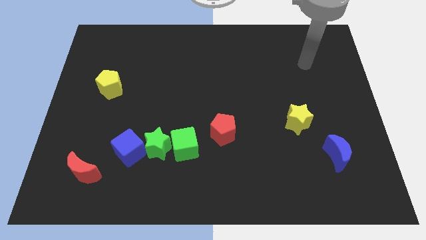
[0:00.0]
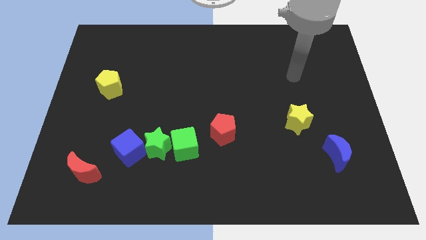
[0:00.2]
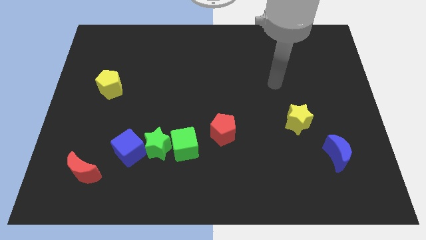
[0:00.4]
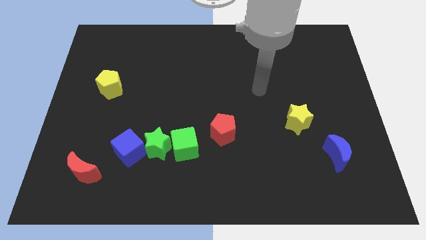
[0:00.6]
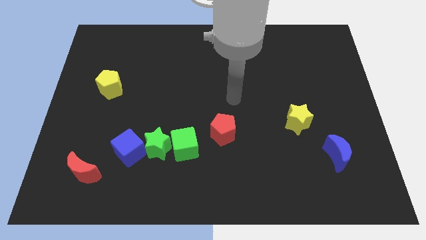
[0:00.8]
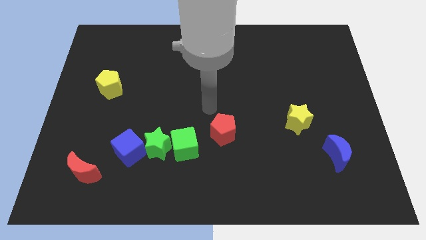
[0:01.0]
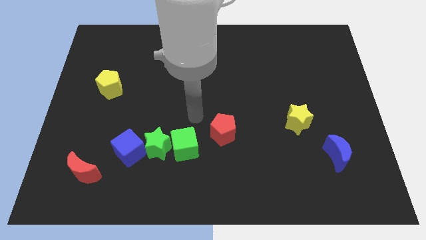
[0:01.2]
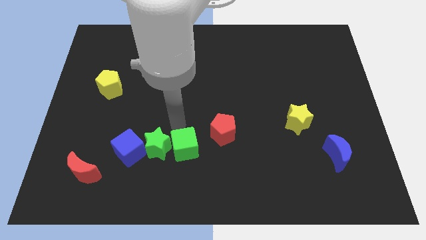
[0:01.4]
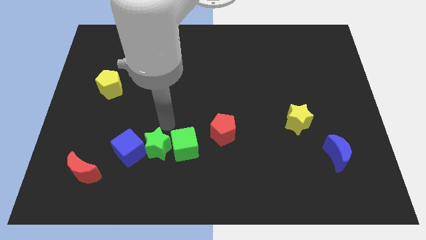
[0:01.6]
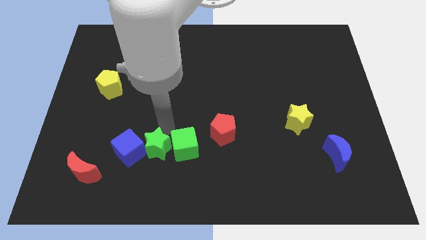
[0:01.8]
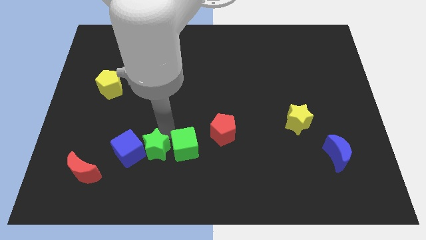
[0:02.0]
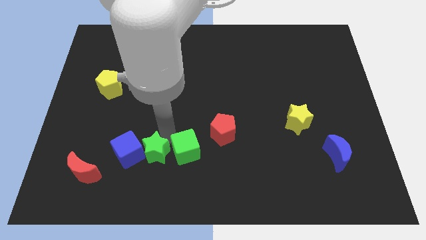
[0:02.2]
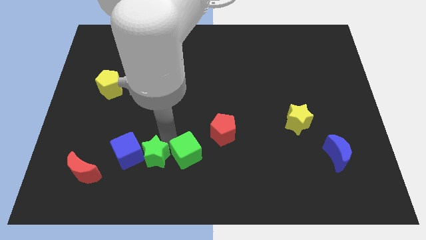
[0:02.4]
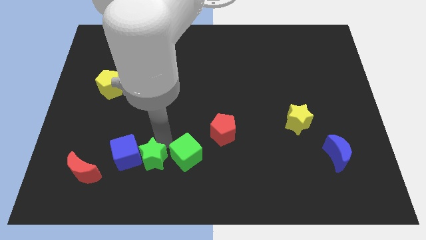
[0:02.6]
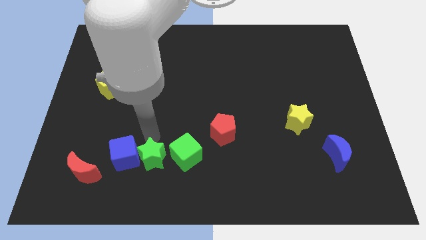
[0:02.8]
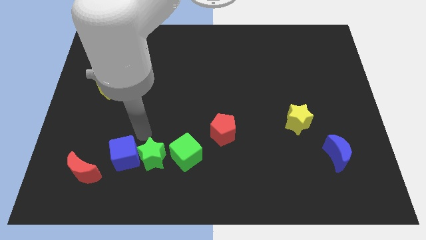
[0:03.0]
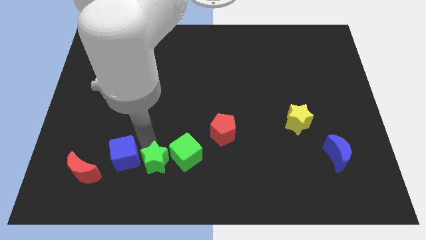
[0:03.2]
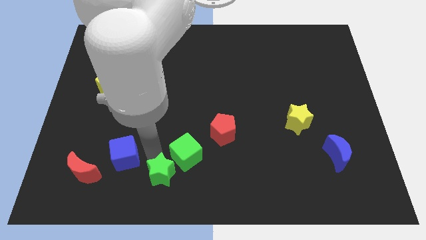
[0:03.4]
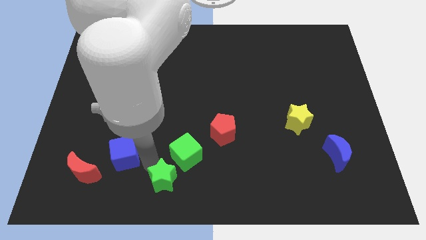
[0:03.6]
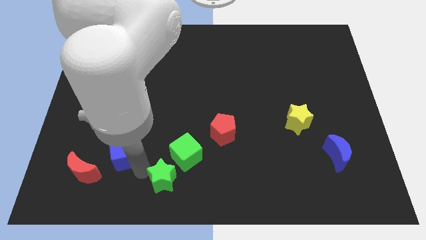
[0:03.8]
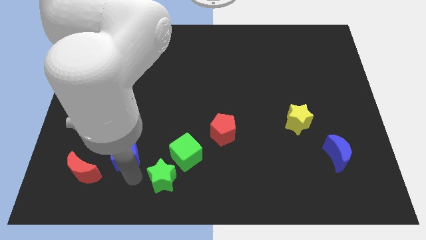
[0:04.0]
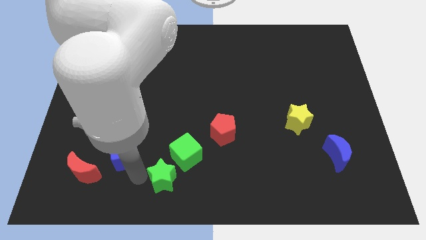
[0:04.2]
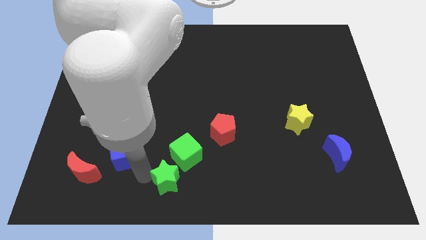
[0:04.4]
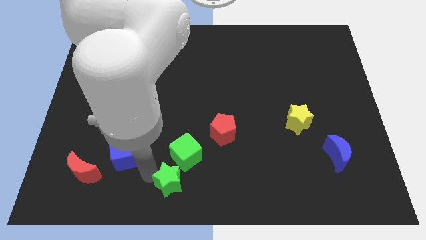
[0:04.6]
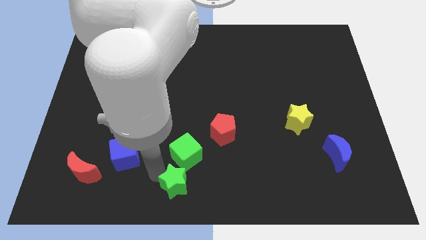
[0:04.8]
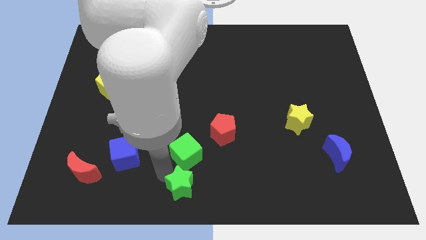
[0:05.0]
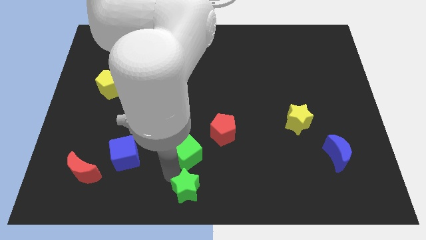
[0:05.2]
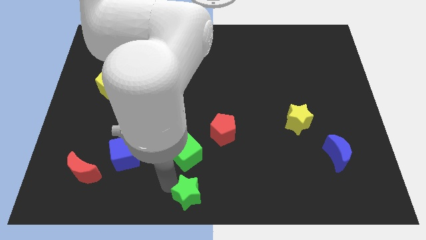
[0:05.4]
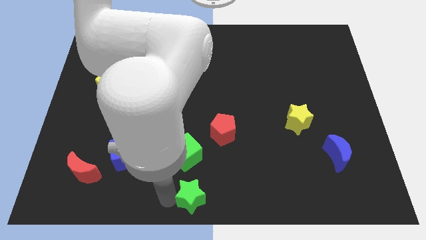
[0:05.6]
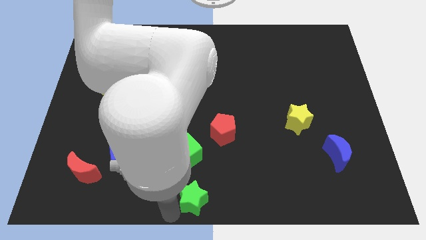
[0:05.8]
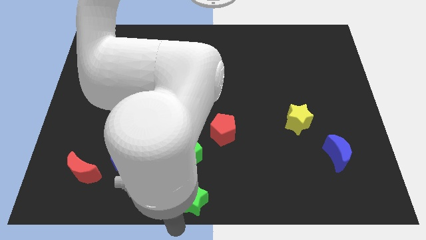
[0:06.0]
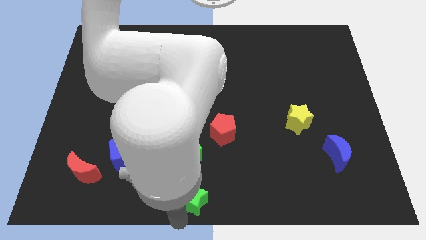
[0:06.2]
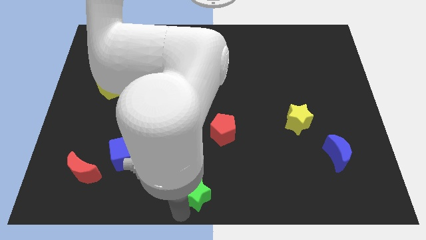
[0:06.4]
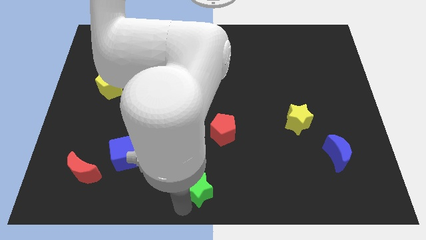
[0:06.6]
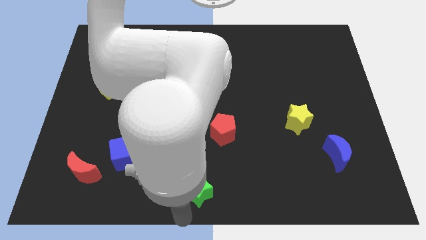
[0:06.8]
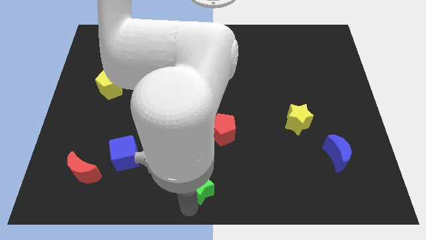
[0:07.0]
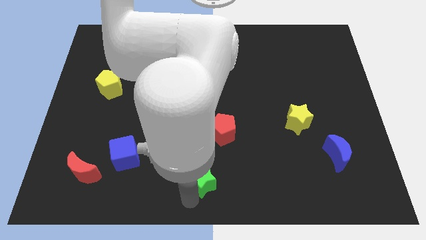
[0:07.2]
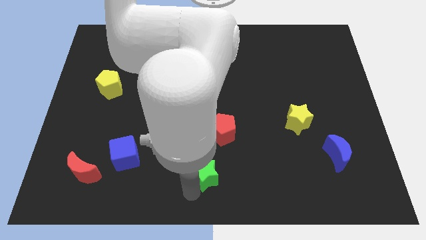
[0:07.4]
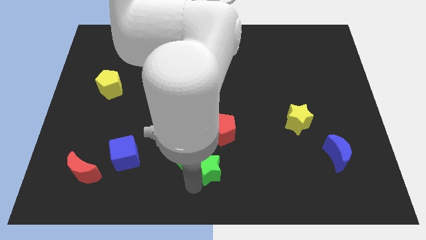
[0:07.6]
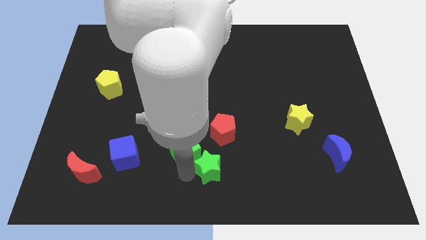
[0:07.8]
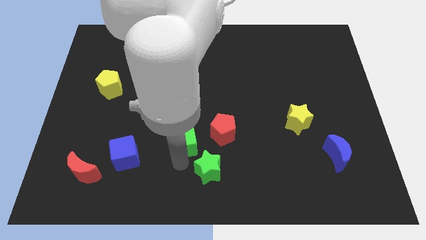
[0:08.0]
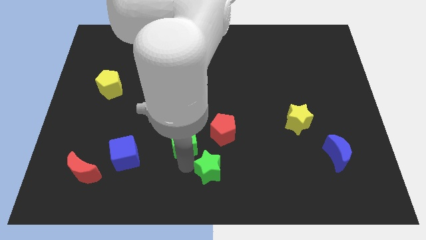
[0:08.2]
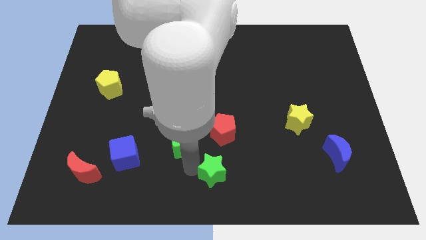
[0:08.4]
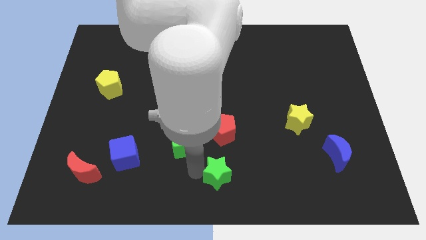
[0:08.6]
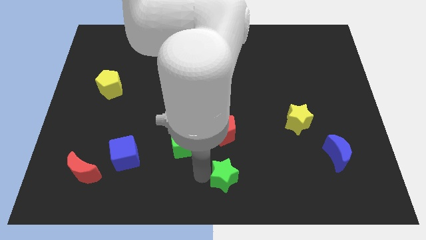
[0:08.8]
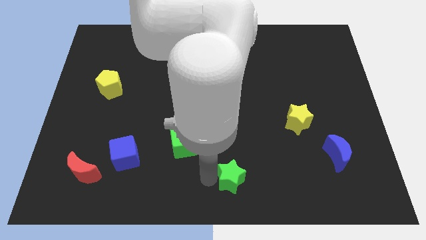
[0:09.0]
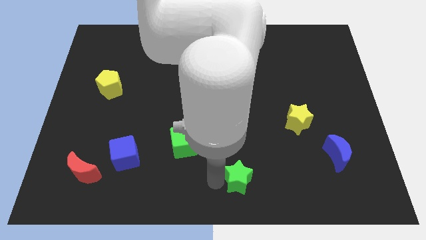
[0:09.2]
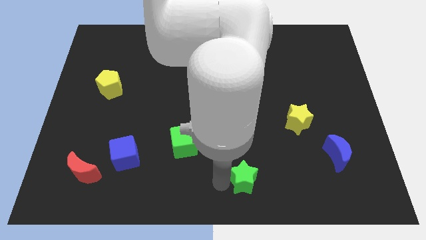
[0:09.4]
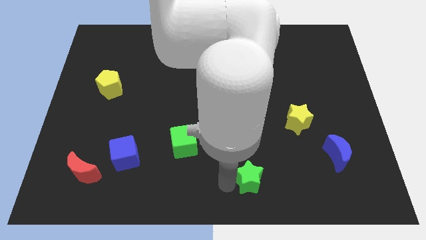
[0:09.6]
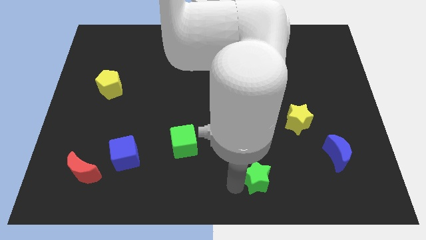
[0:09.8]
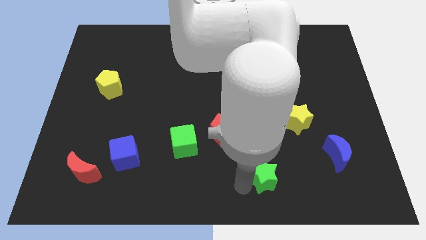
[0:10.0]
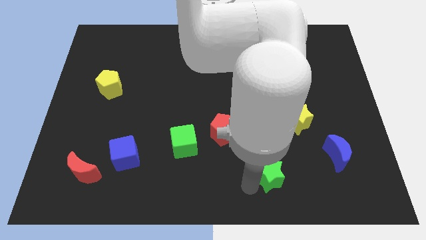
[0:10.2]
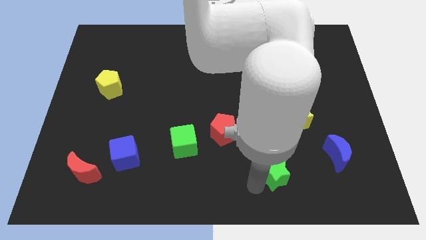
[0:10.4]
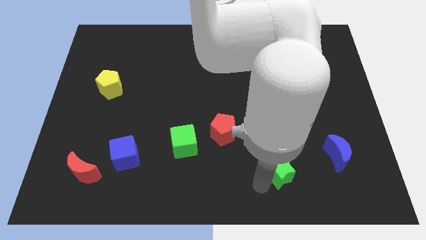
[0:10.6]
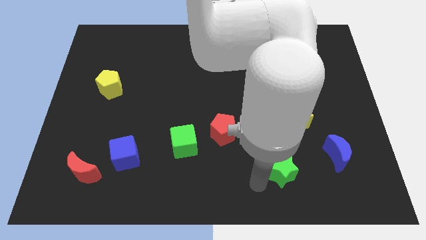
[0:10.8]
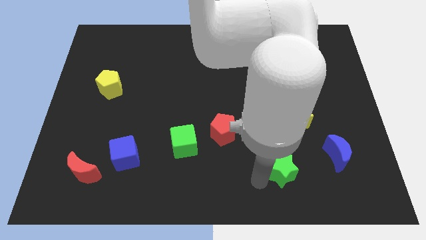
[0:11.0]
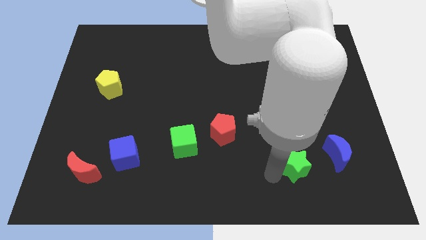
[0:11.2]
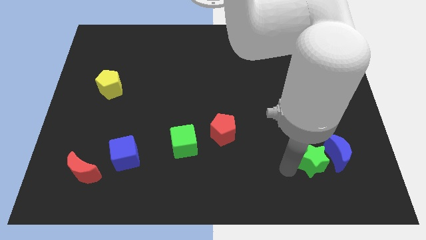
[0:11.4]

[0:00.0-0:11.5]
push the green star next to the blue moon

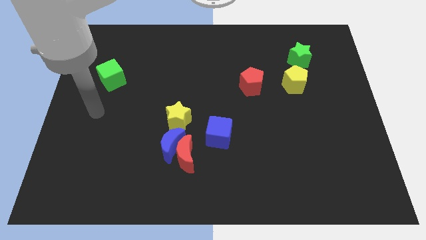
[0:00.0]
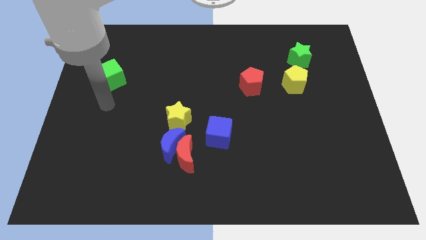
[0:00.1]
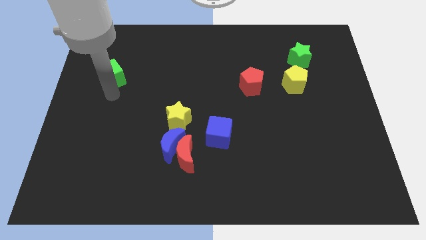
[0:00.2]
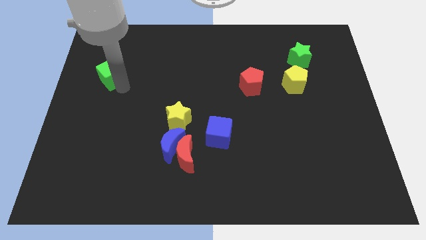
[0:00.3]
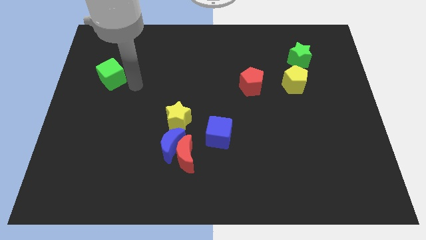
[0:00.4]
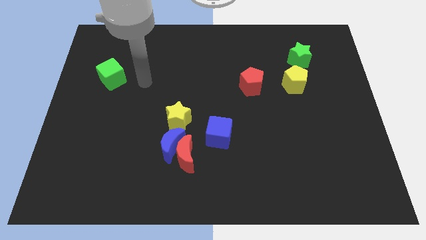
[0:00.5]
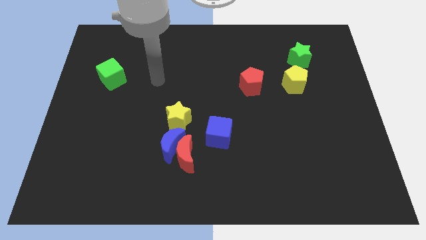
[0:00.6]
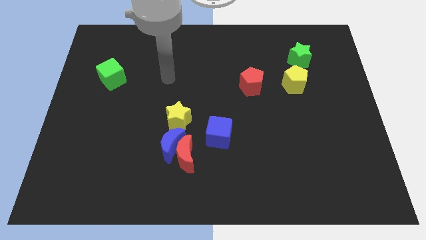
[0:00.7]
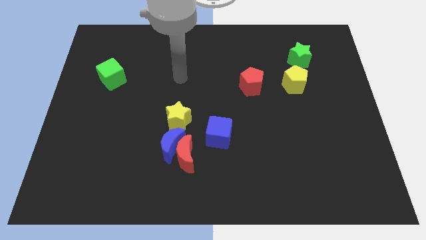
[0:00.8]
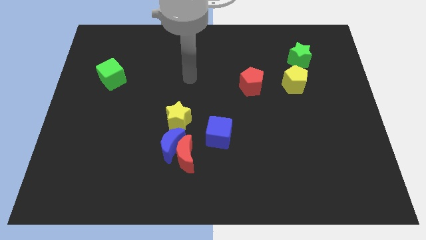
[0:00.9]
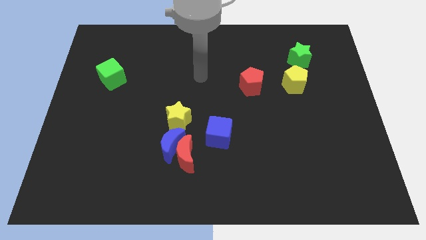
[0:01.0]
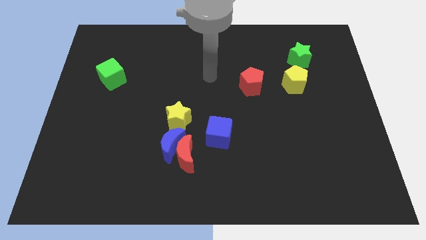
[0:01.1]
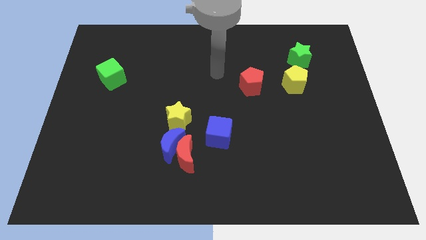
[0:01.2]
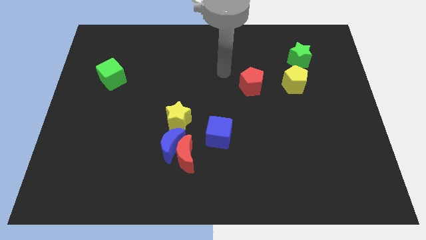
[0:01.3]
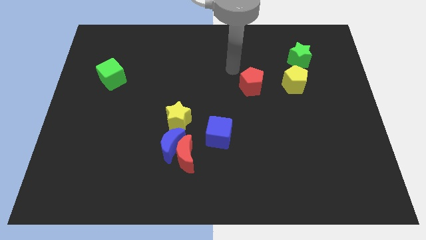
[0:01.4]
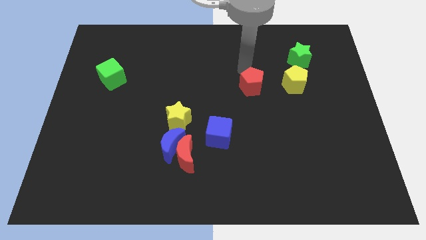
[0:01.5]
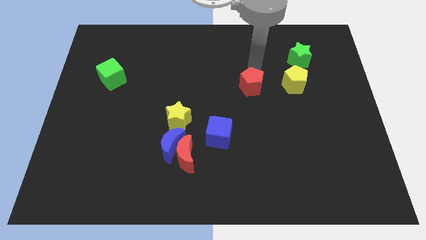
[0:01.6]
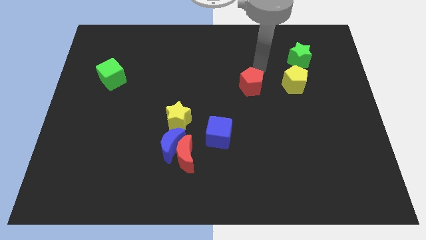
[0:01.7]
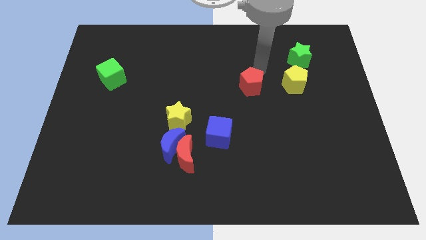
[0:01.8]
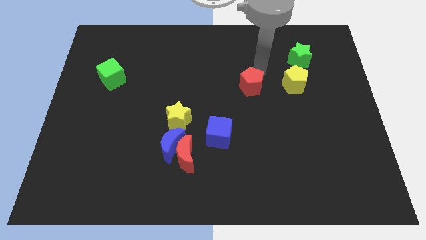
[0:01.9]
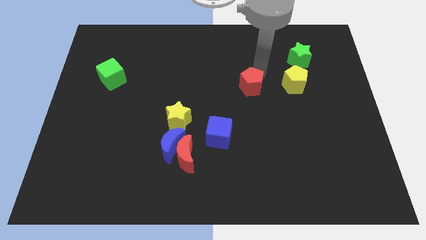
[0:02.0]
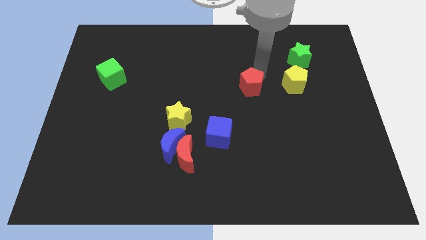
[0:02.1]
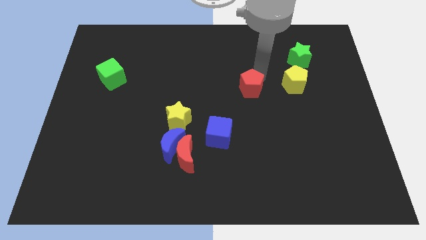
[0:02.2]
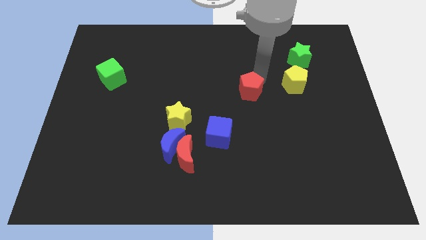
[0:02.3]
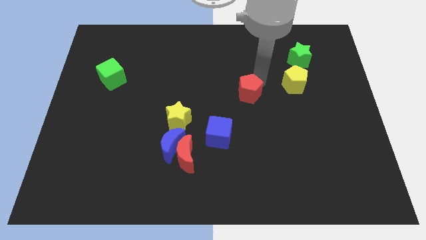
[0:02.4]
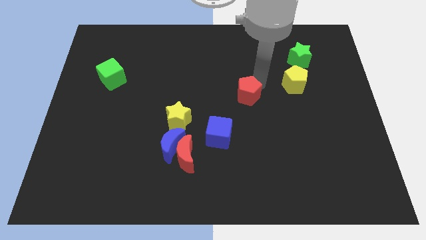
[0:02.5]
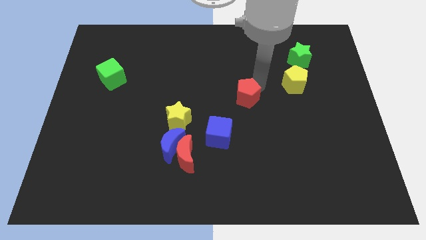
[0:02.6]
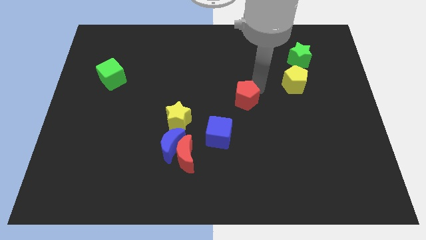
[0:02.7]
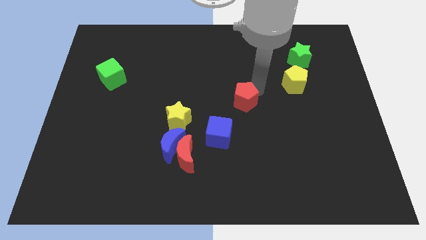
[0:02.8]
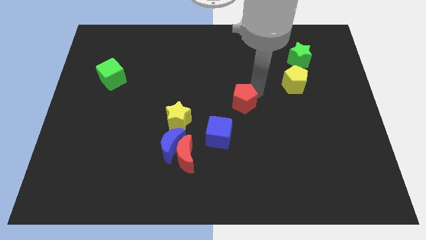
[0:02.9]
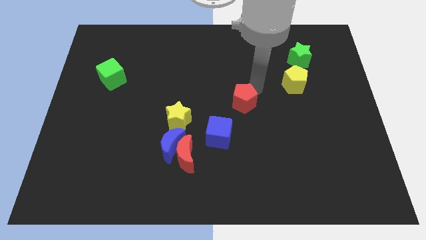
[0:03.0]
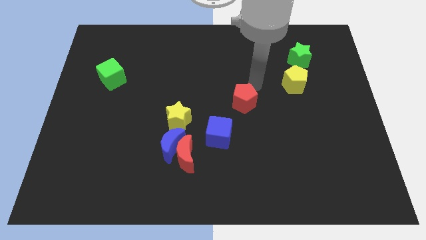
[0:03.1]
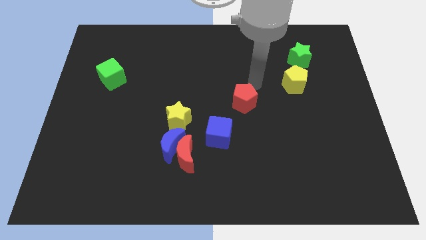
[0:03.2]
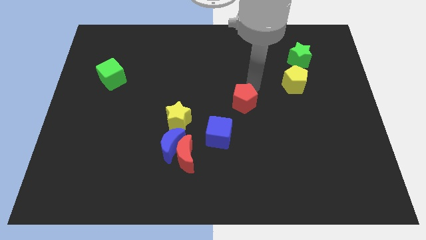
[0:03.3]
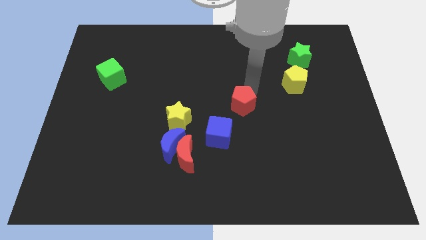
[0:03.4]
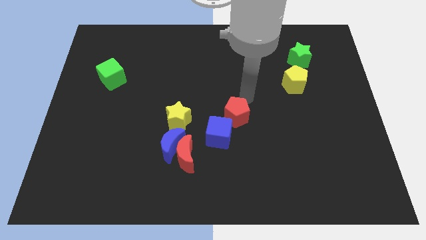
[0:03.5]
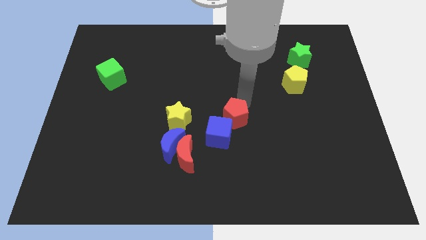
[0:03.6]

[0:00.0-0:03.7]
slide the red pentagon to the blue cube
